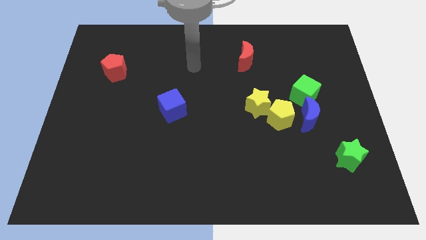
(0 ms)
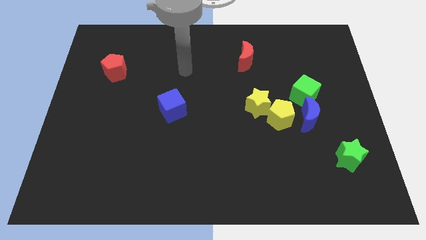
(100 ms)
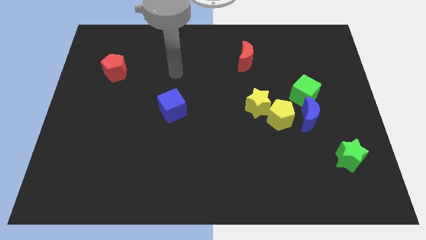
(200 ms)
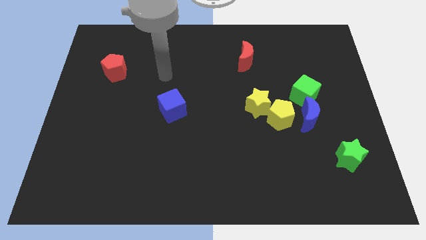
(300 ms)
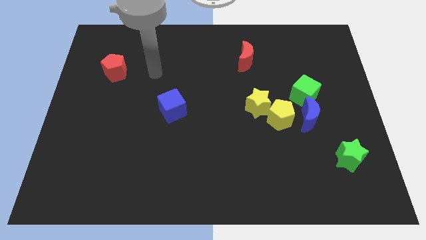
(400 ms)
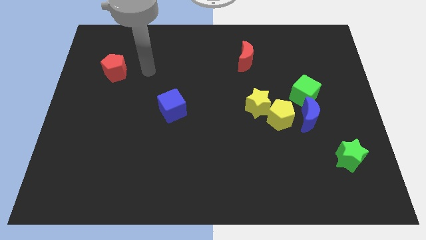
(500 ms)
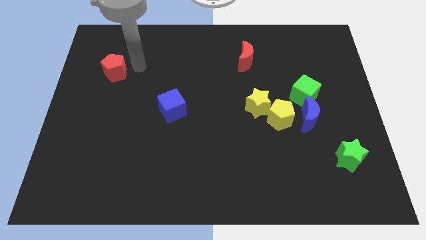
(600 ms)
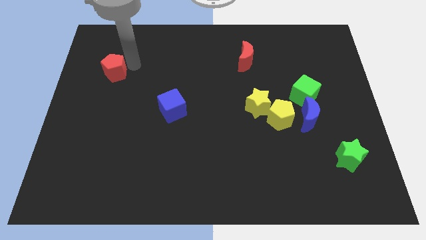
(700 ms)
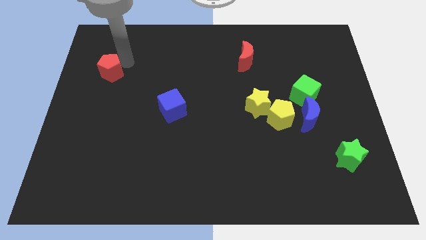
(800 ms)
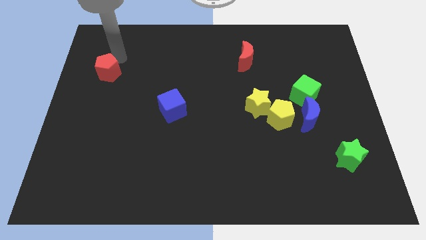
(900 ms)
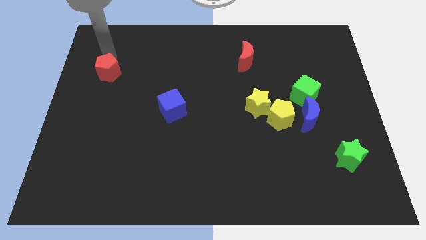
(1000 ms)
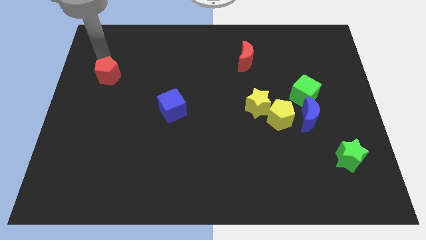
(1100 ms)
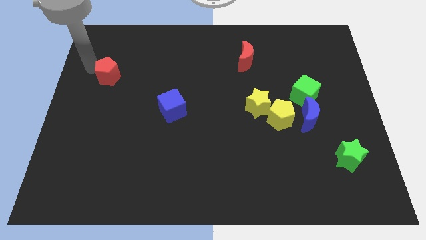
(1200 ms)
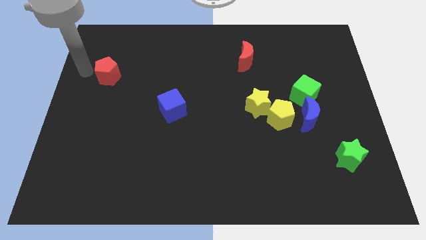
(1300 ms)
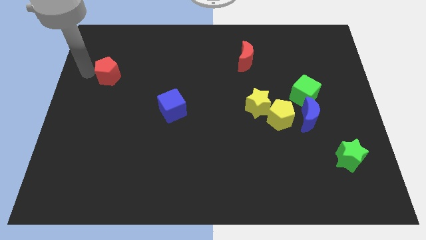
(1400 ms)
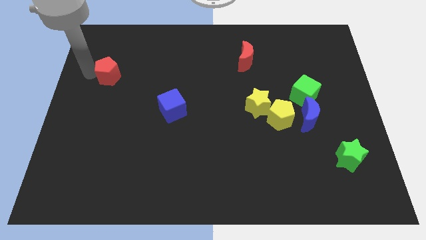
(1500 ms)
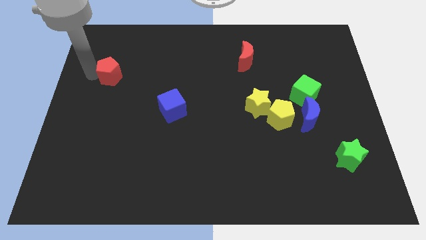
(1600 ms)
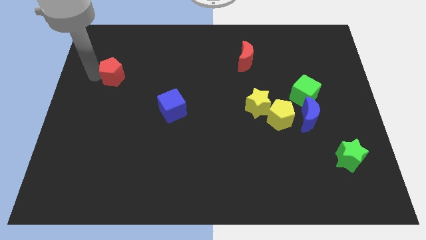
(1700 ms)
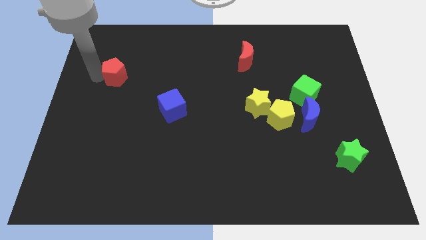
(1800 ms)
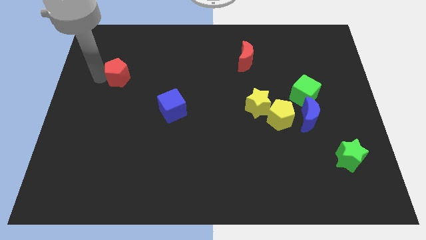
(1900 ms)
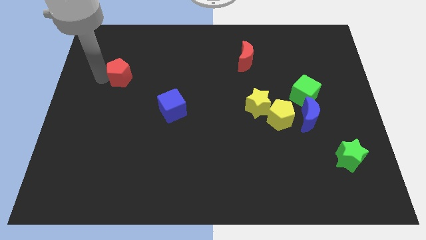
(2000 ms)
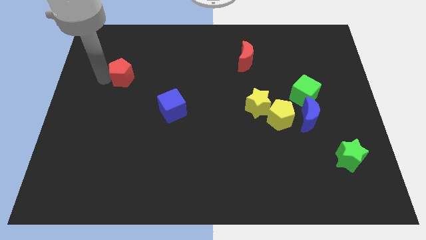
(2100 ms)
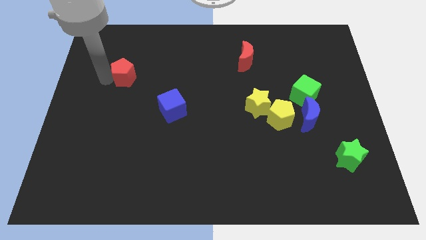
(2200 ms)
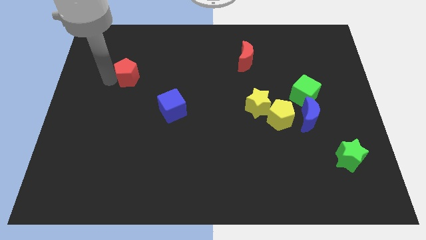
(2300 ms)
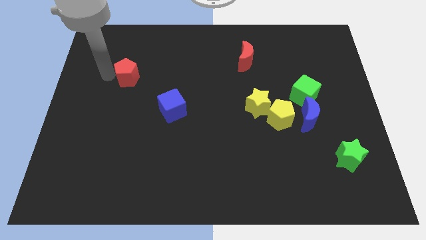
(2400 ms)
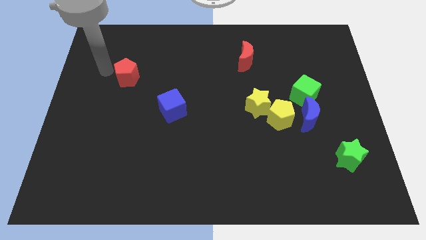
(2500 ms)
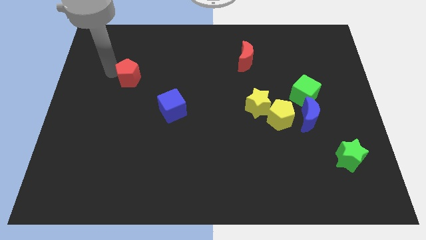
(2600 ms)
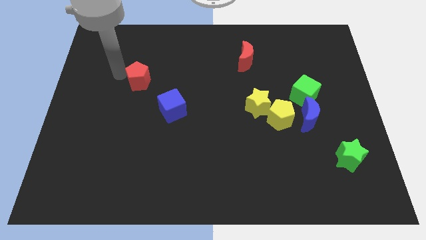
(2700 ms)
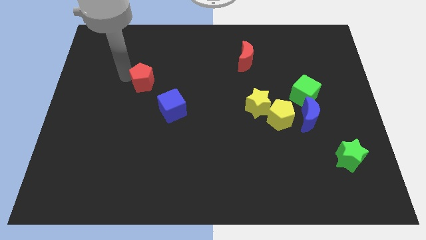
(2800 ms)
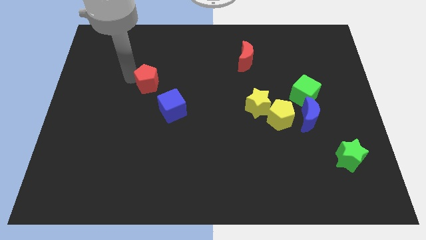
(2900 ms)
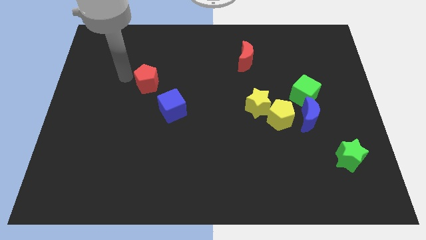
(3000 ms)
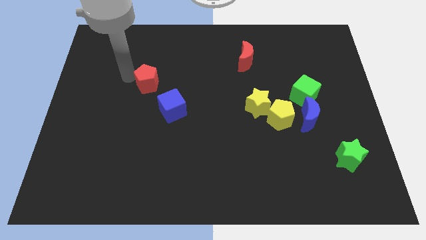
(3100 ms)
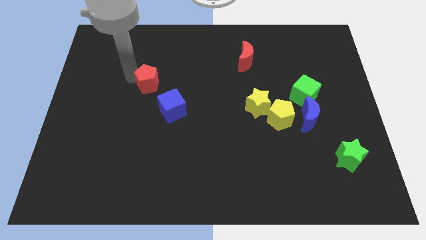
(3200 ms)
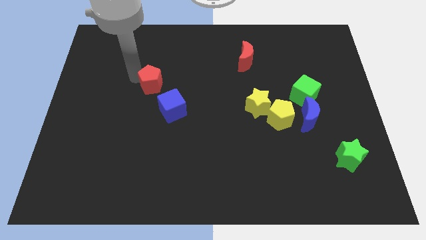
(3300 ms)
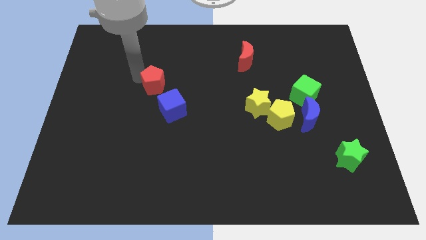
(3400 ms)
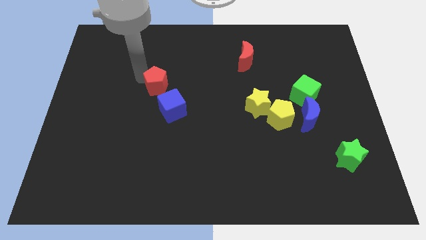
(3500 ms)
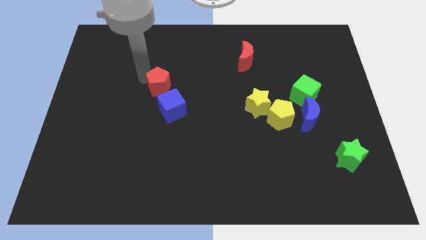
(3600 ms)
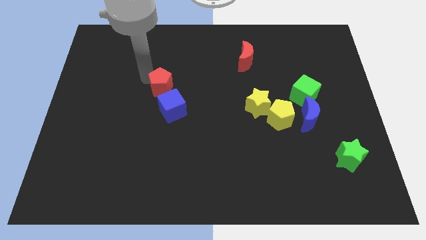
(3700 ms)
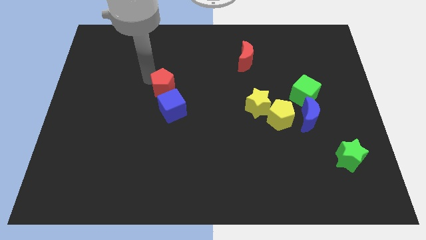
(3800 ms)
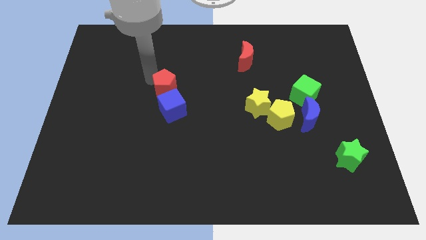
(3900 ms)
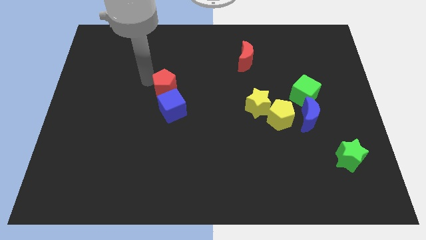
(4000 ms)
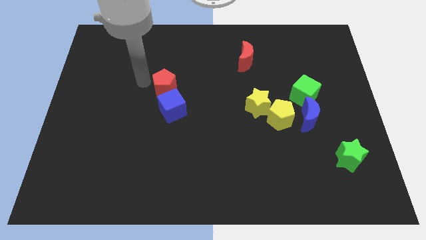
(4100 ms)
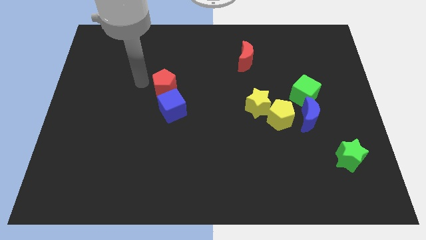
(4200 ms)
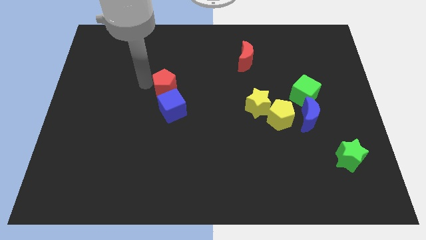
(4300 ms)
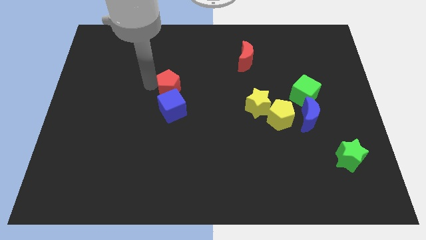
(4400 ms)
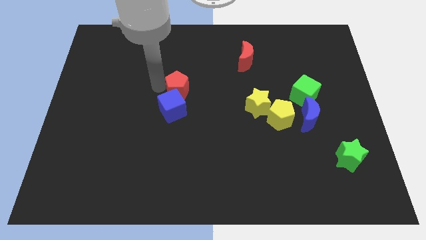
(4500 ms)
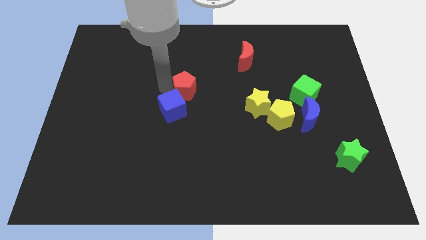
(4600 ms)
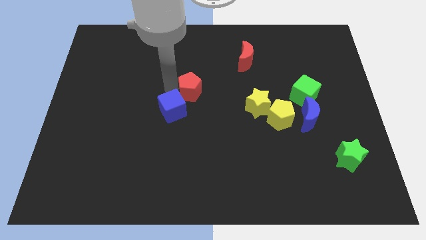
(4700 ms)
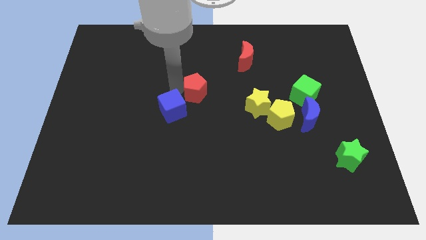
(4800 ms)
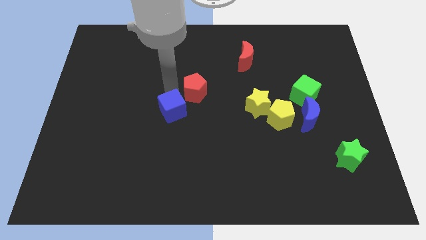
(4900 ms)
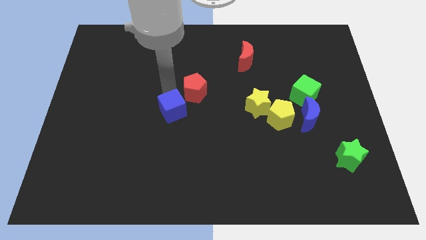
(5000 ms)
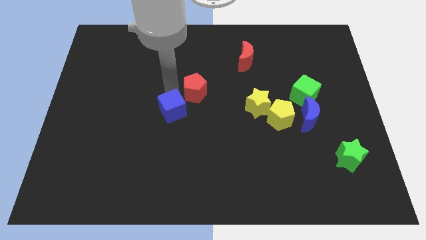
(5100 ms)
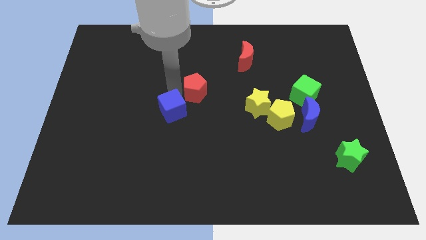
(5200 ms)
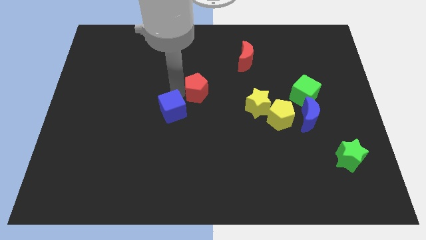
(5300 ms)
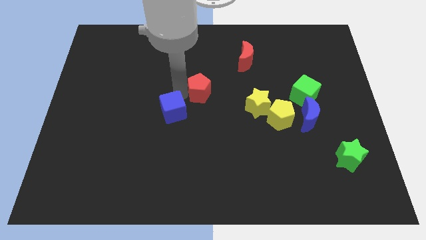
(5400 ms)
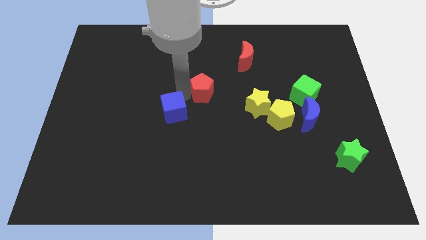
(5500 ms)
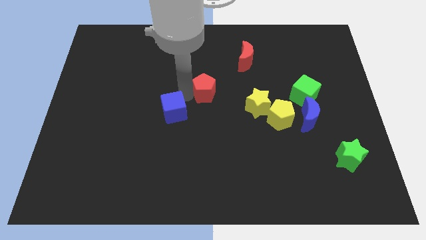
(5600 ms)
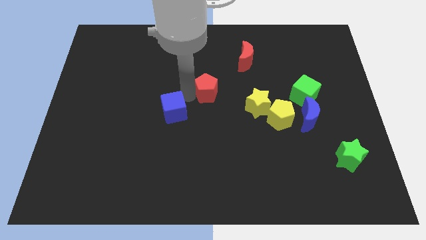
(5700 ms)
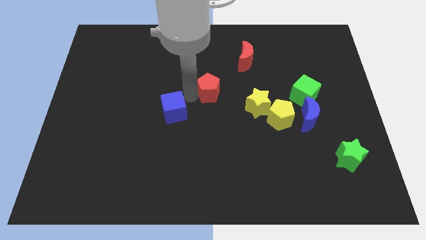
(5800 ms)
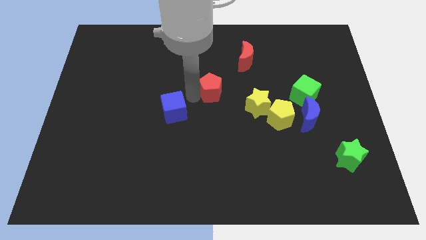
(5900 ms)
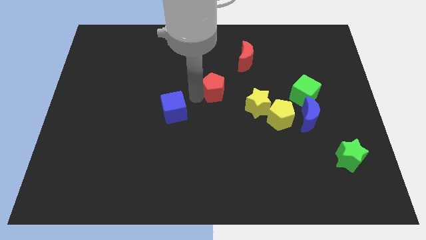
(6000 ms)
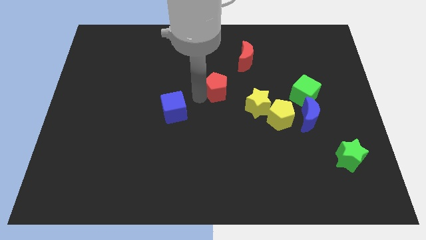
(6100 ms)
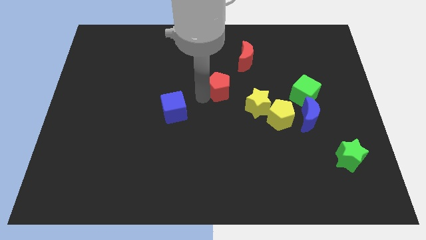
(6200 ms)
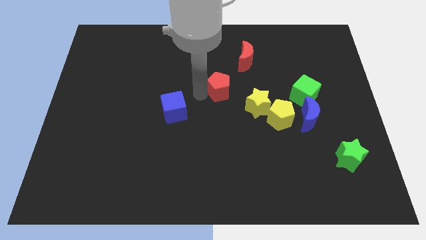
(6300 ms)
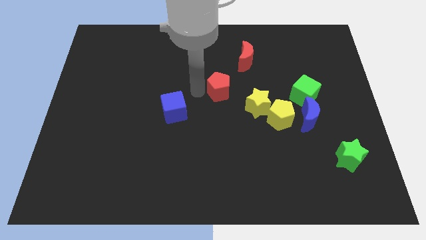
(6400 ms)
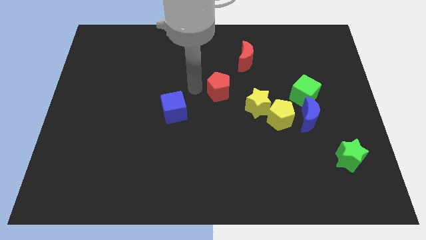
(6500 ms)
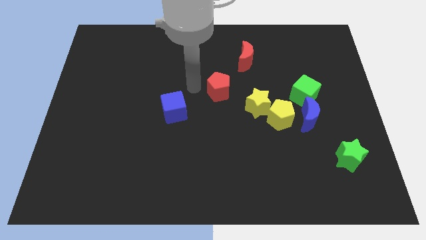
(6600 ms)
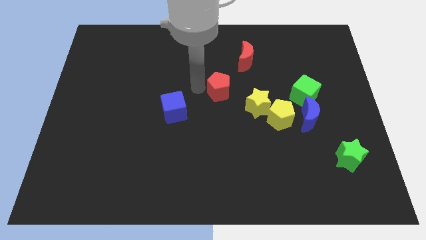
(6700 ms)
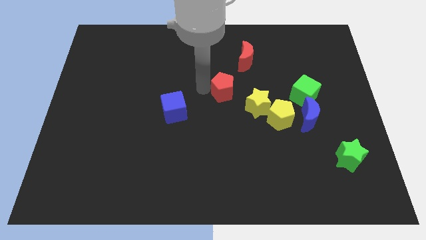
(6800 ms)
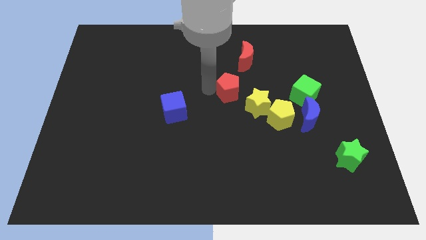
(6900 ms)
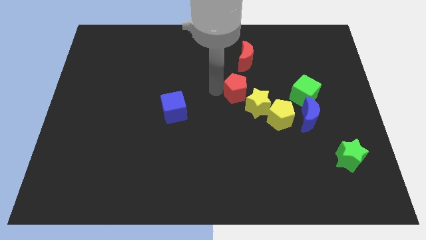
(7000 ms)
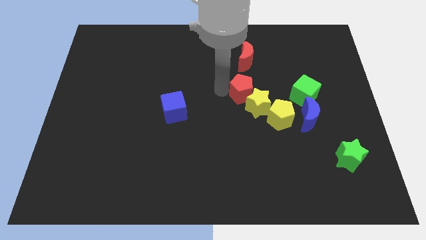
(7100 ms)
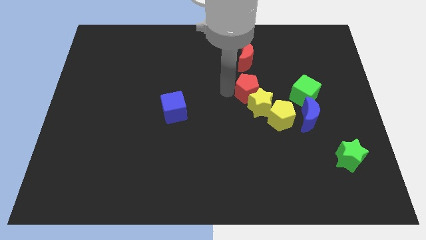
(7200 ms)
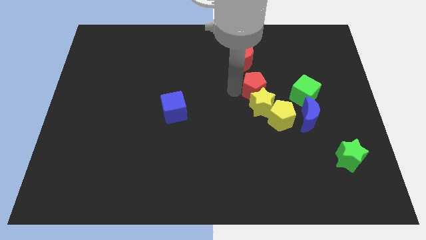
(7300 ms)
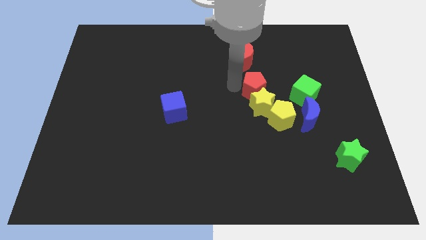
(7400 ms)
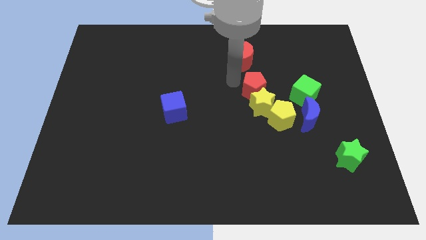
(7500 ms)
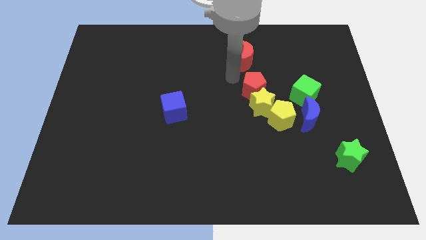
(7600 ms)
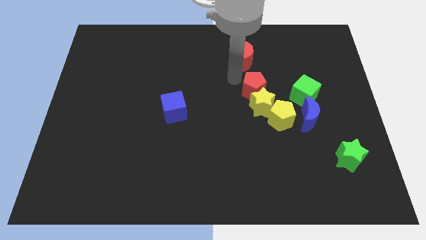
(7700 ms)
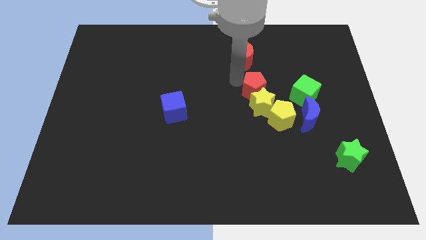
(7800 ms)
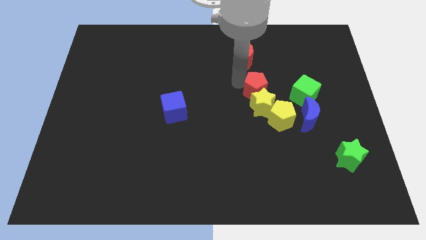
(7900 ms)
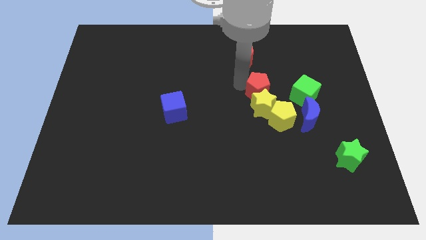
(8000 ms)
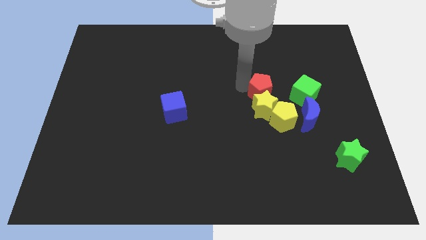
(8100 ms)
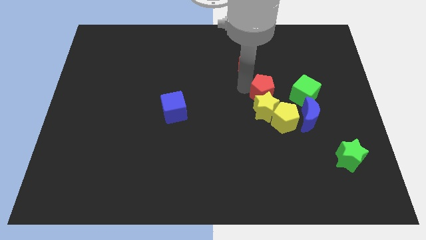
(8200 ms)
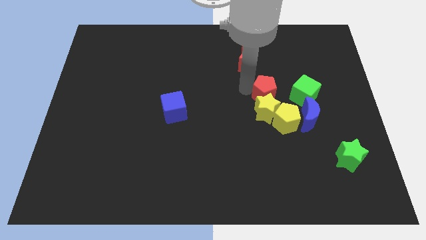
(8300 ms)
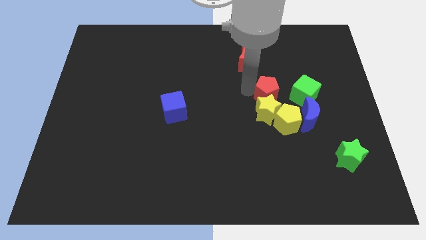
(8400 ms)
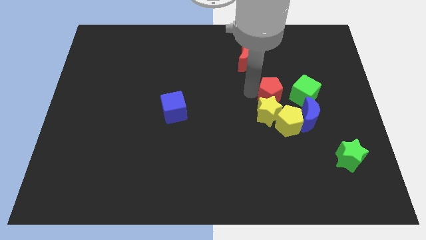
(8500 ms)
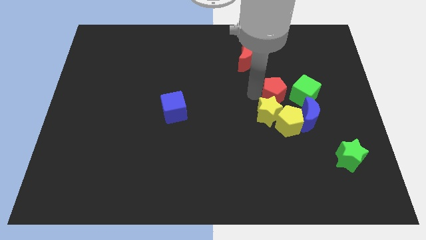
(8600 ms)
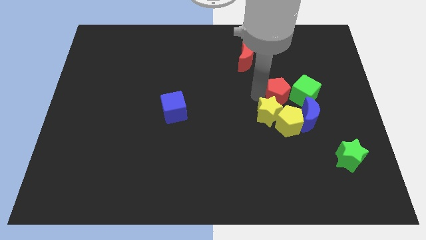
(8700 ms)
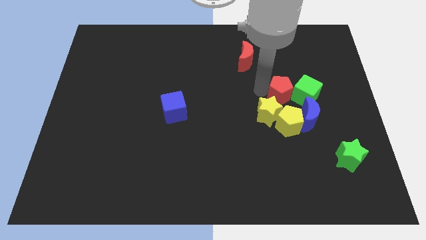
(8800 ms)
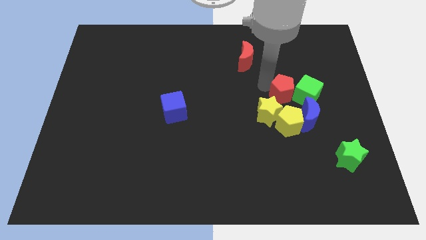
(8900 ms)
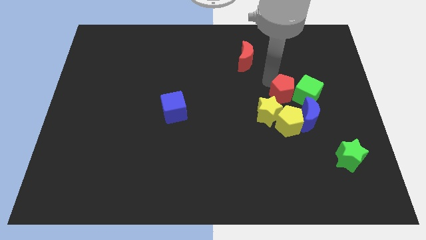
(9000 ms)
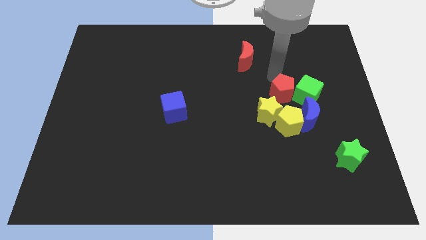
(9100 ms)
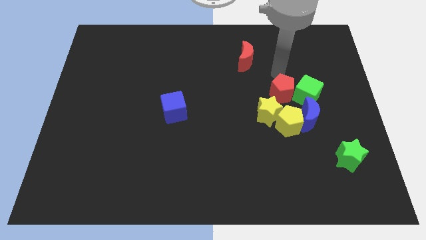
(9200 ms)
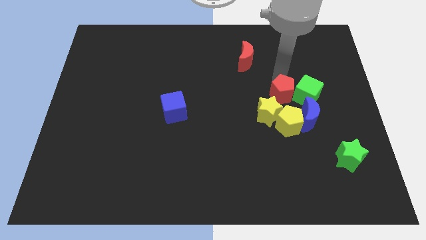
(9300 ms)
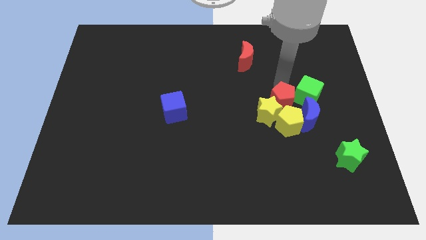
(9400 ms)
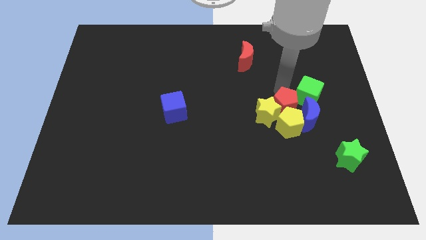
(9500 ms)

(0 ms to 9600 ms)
slide the red pentagon next to the yellow pentagon
